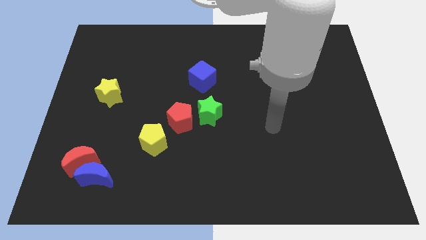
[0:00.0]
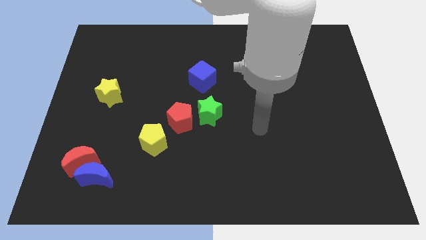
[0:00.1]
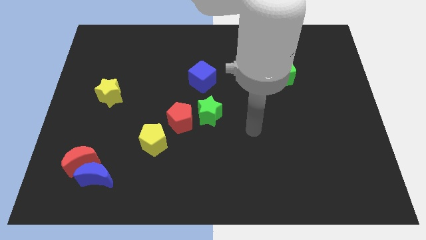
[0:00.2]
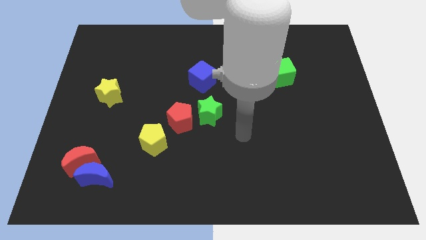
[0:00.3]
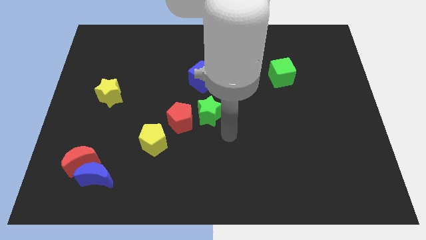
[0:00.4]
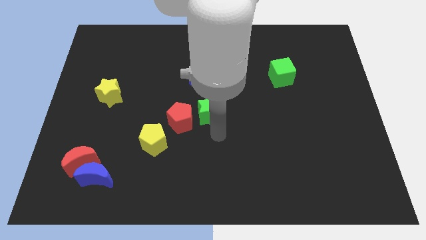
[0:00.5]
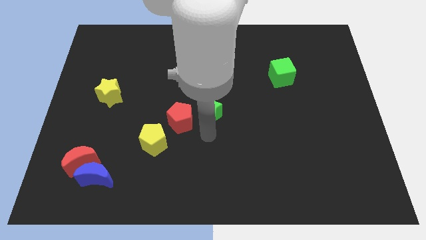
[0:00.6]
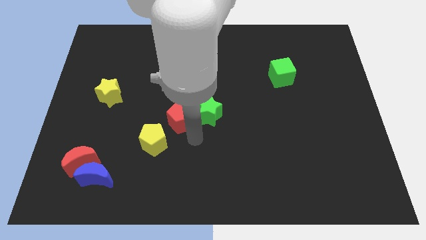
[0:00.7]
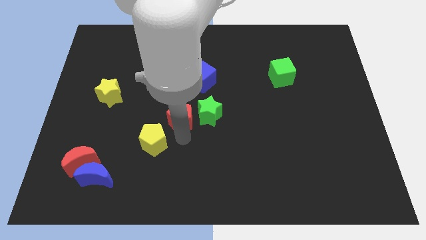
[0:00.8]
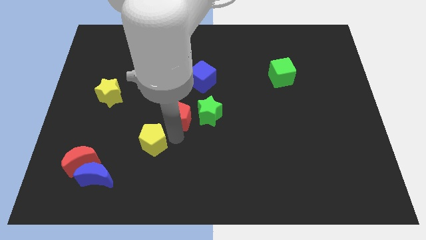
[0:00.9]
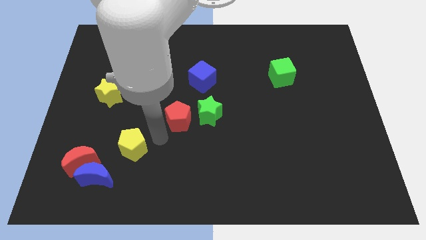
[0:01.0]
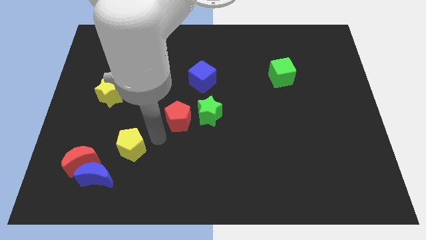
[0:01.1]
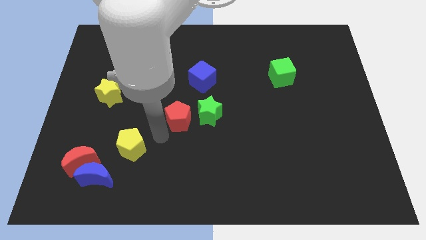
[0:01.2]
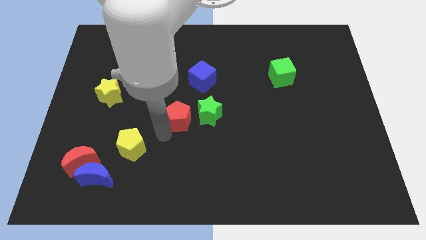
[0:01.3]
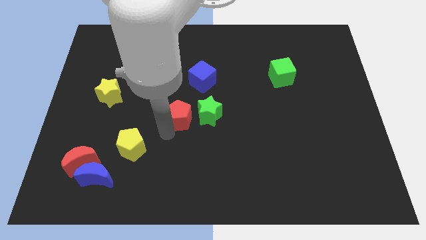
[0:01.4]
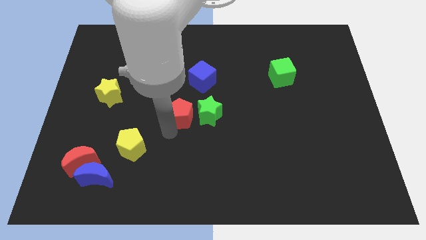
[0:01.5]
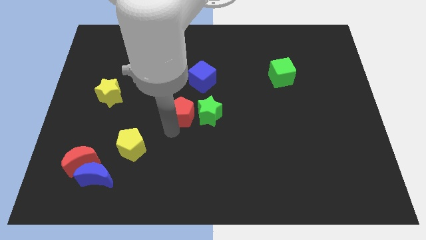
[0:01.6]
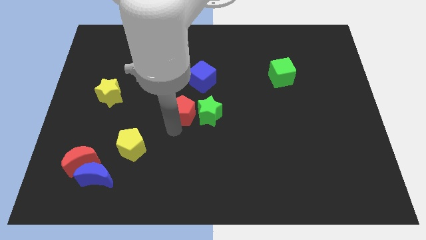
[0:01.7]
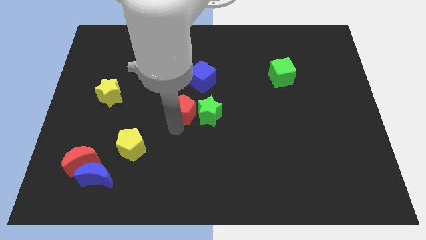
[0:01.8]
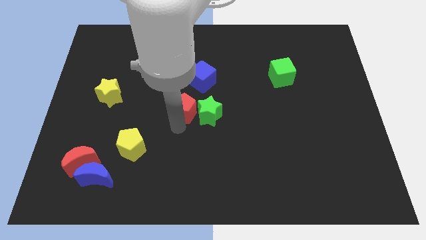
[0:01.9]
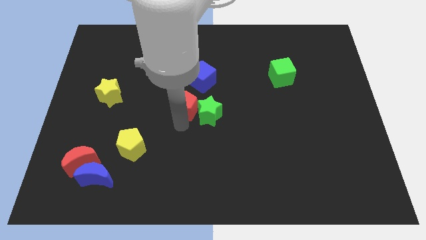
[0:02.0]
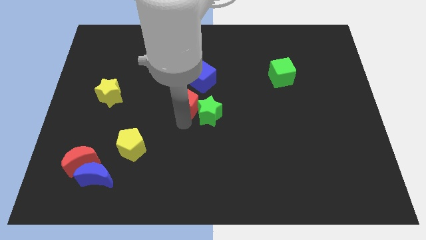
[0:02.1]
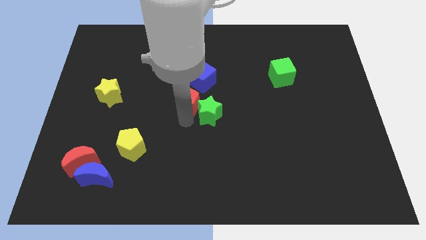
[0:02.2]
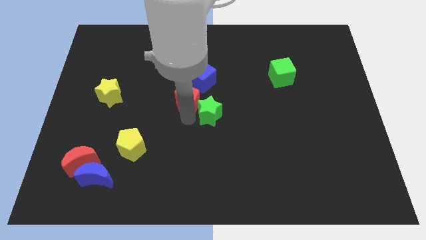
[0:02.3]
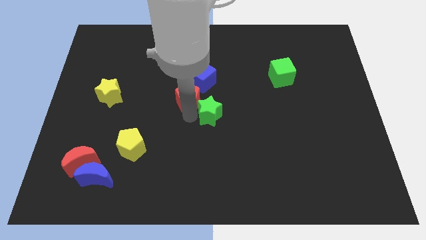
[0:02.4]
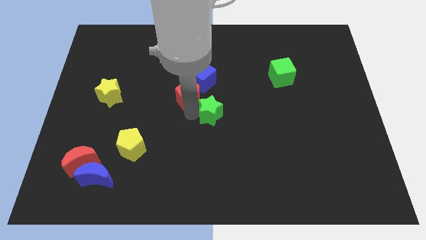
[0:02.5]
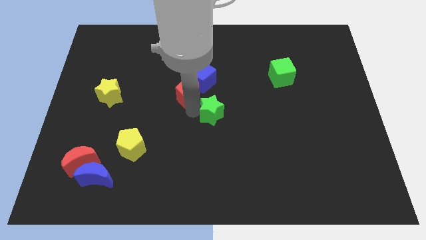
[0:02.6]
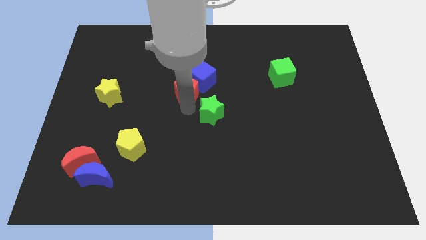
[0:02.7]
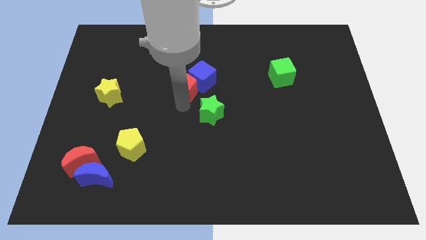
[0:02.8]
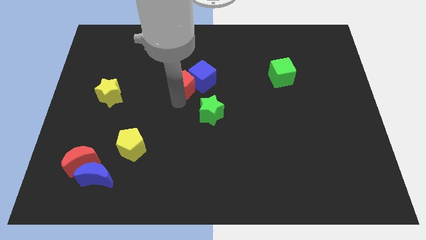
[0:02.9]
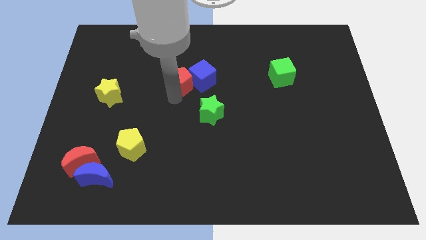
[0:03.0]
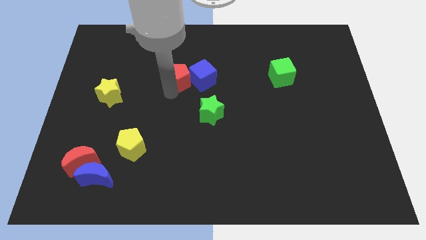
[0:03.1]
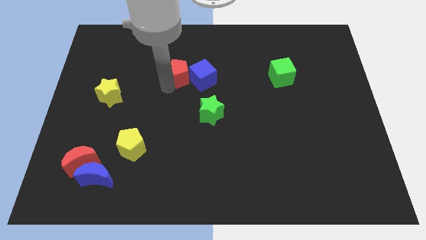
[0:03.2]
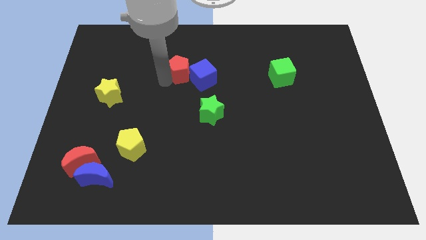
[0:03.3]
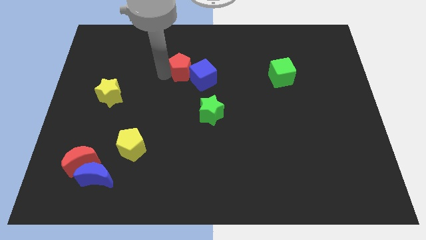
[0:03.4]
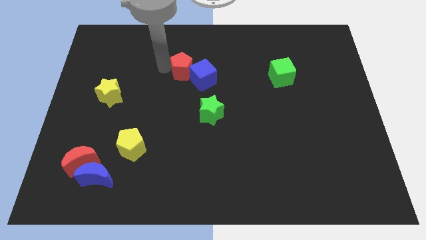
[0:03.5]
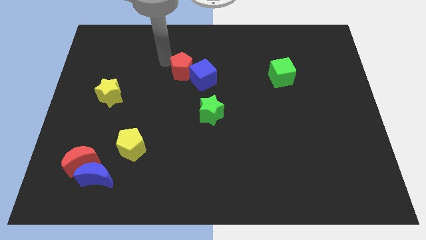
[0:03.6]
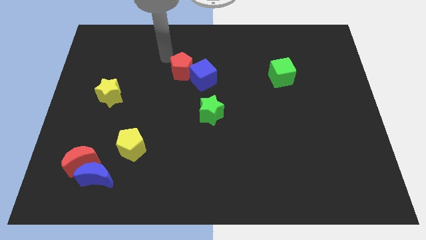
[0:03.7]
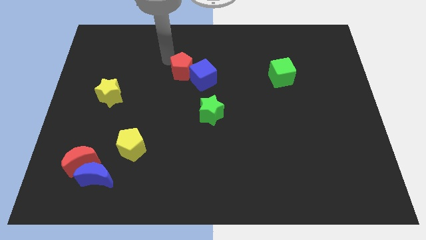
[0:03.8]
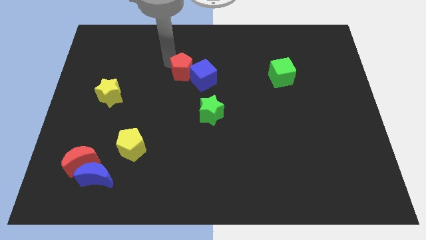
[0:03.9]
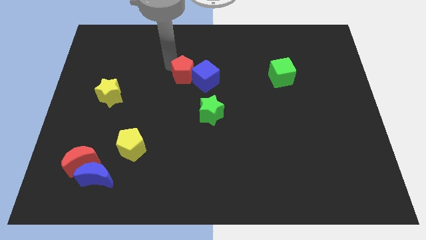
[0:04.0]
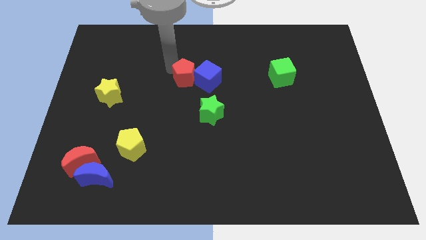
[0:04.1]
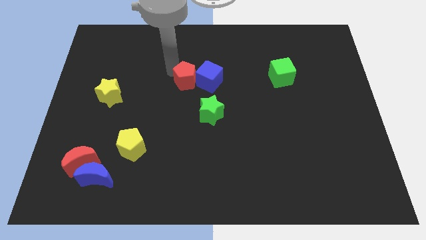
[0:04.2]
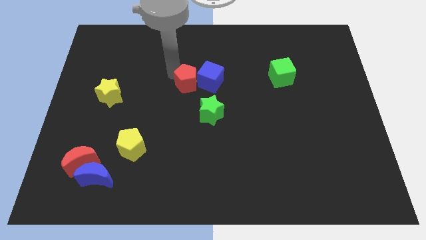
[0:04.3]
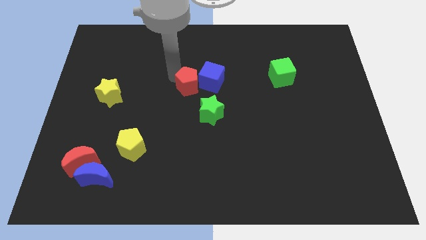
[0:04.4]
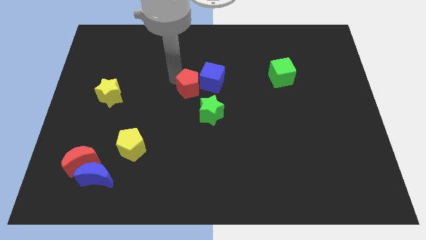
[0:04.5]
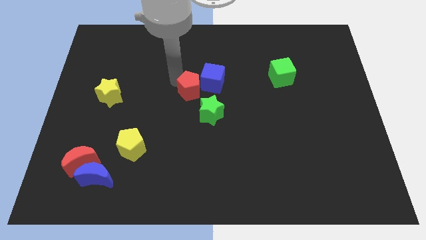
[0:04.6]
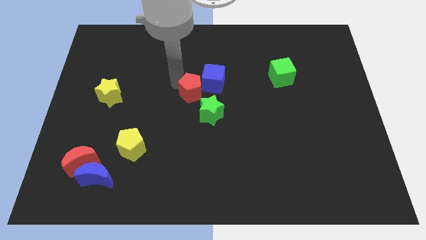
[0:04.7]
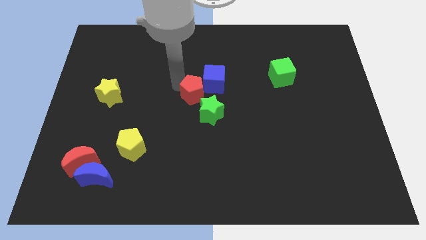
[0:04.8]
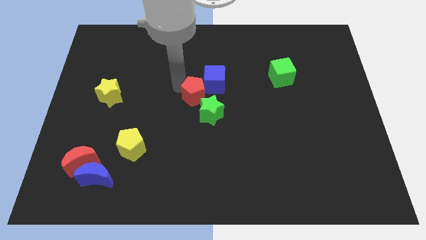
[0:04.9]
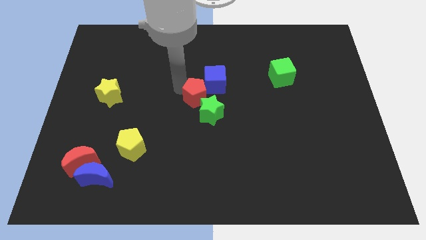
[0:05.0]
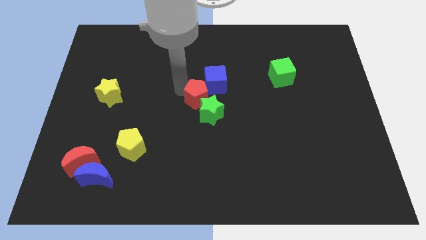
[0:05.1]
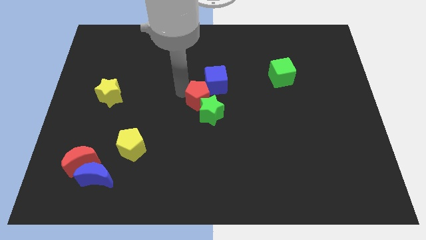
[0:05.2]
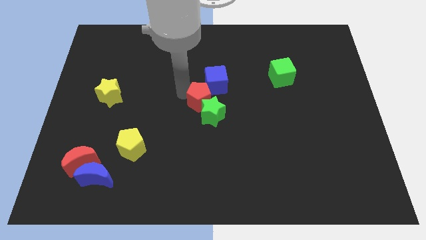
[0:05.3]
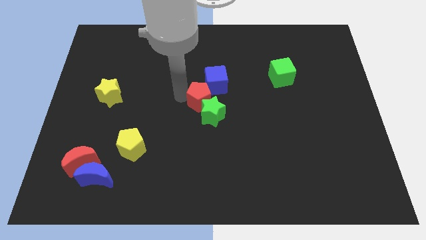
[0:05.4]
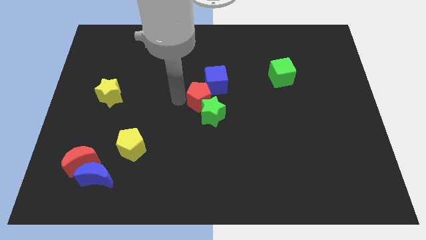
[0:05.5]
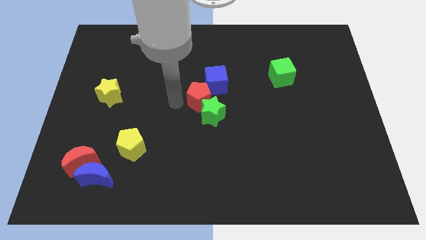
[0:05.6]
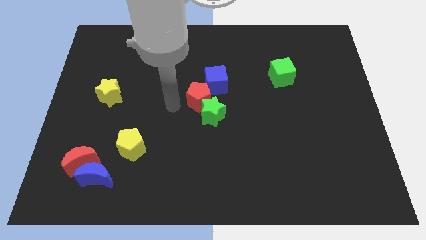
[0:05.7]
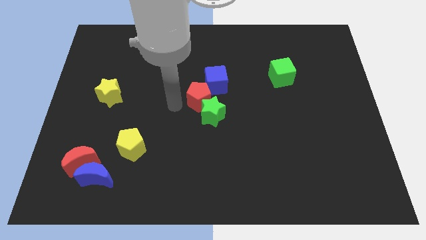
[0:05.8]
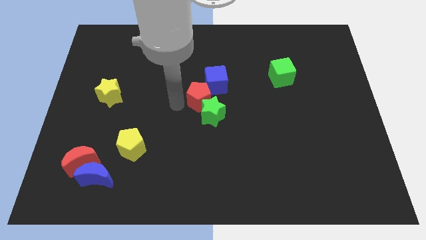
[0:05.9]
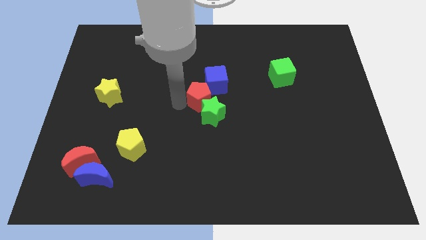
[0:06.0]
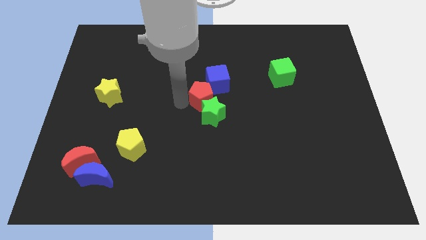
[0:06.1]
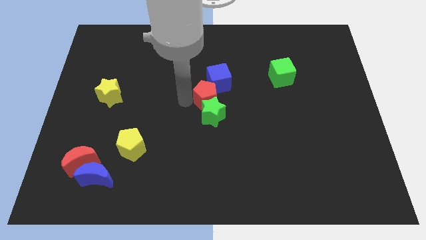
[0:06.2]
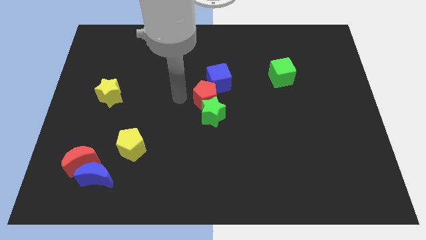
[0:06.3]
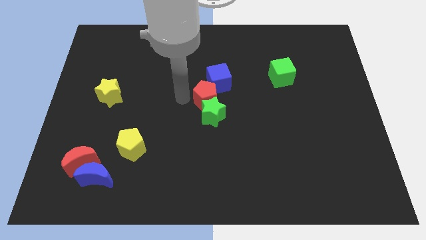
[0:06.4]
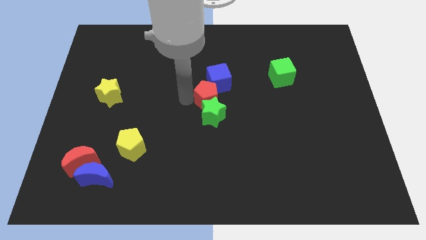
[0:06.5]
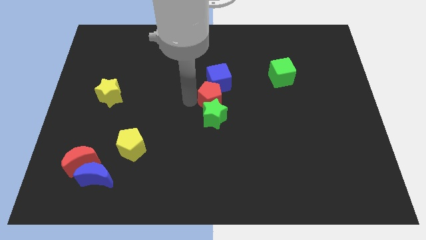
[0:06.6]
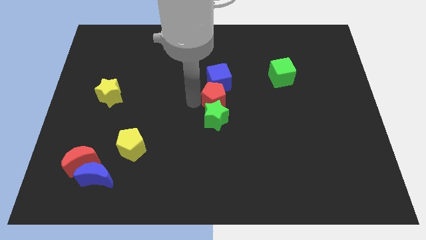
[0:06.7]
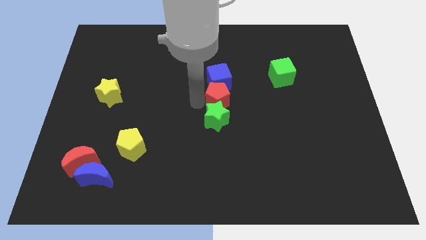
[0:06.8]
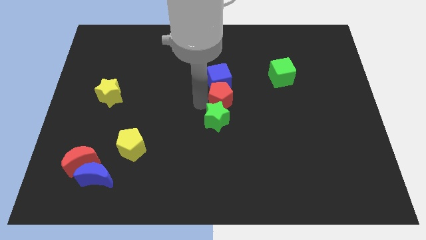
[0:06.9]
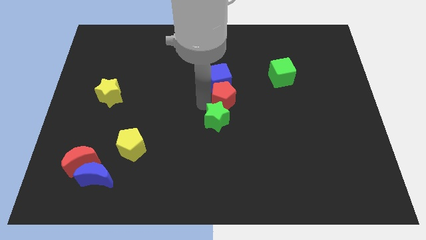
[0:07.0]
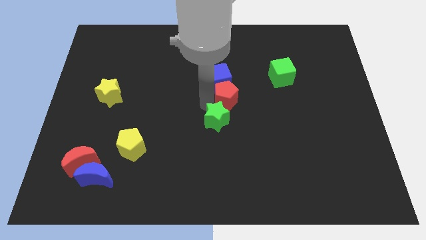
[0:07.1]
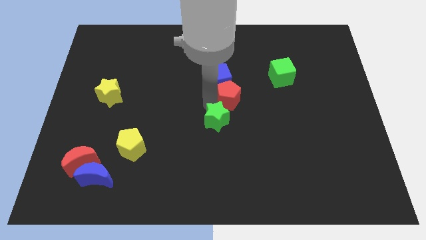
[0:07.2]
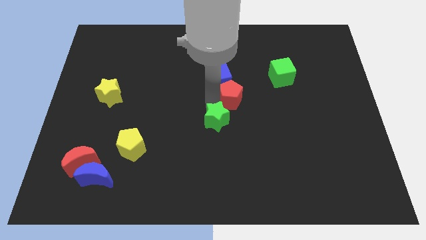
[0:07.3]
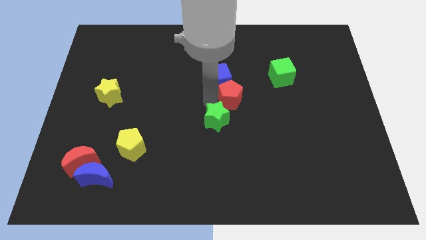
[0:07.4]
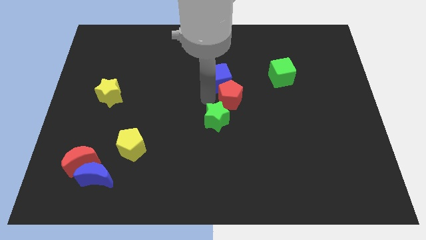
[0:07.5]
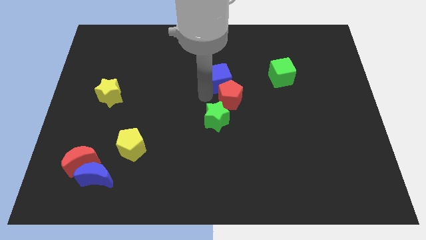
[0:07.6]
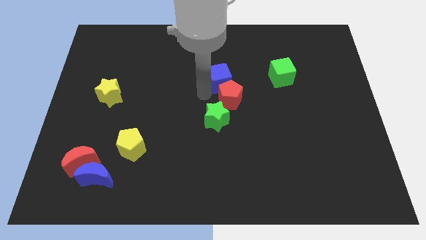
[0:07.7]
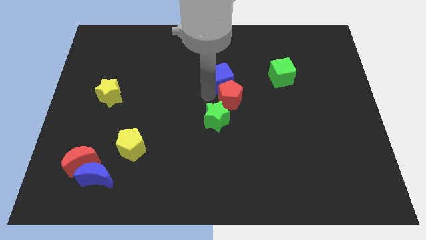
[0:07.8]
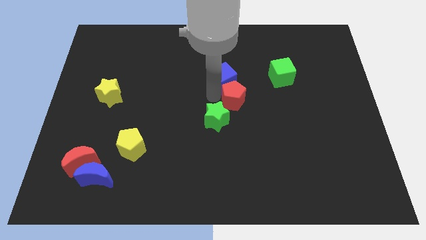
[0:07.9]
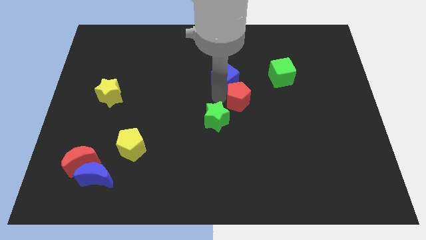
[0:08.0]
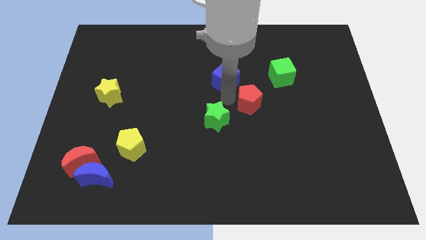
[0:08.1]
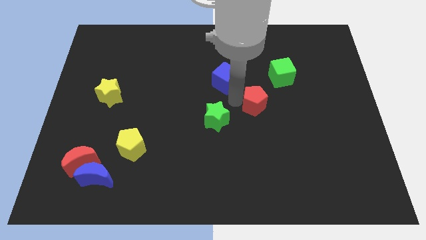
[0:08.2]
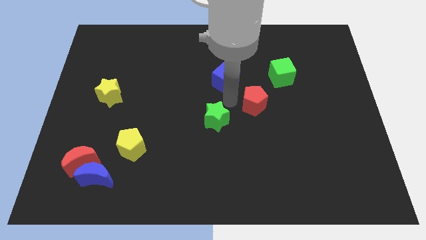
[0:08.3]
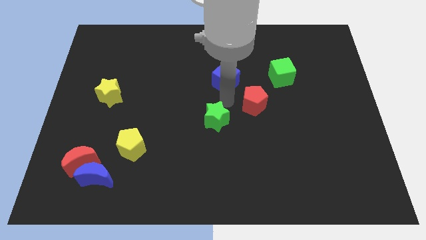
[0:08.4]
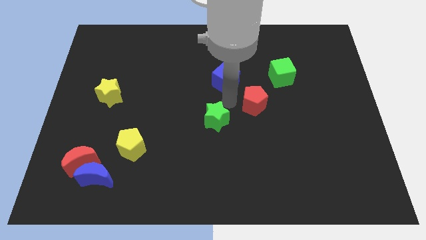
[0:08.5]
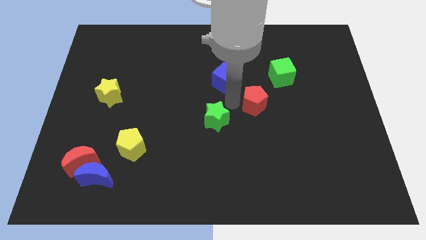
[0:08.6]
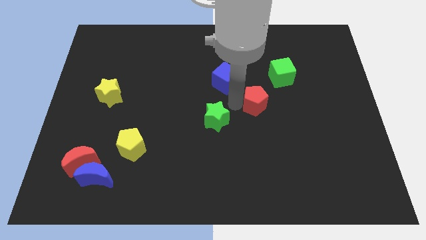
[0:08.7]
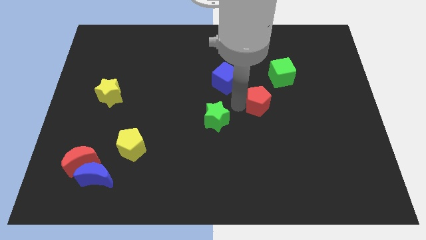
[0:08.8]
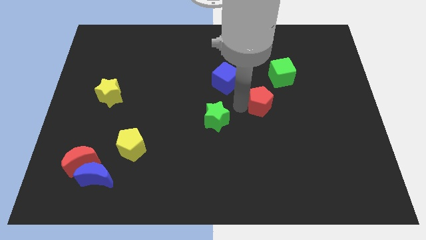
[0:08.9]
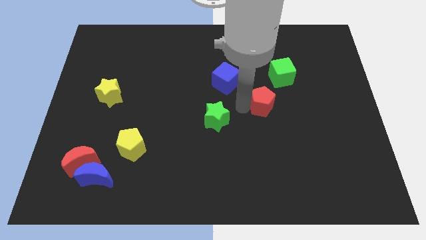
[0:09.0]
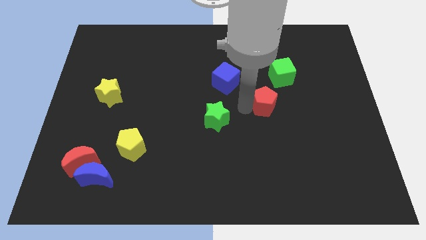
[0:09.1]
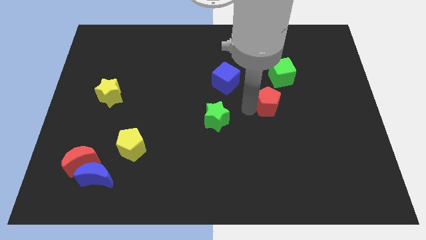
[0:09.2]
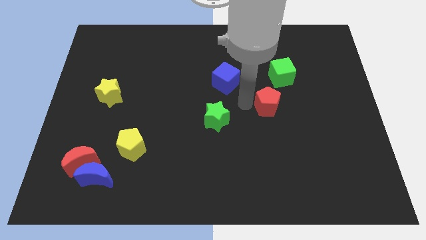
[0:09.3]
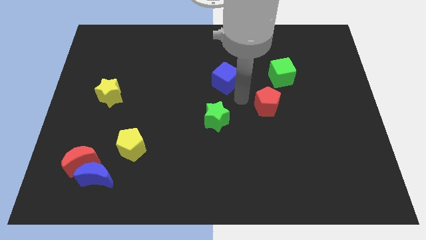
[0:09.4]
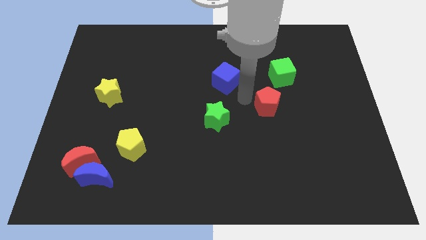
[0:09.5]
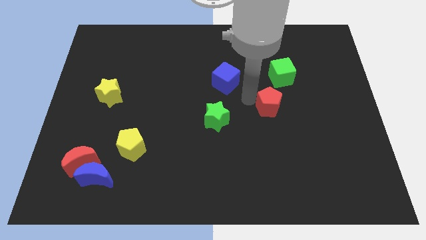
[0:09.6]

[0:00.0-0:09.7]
push the red pentagon right
